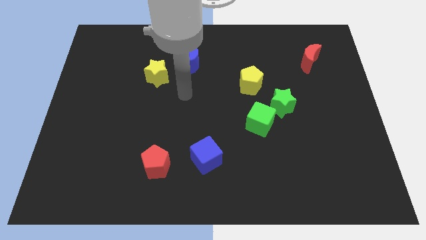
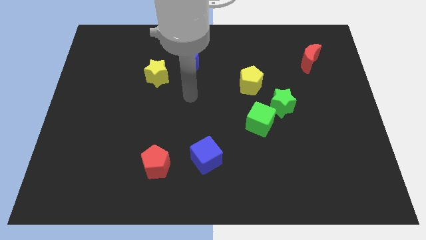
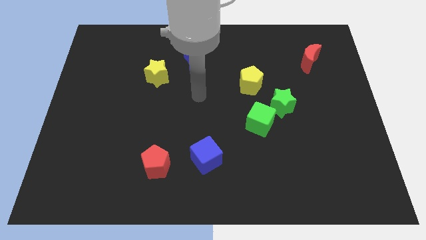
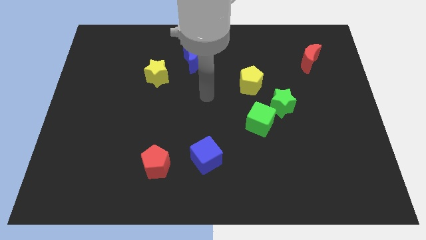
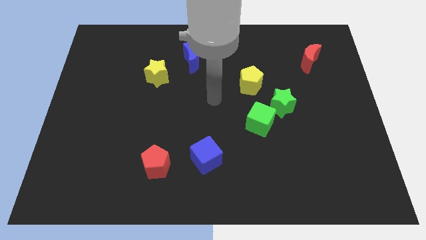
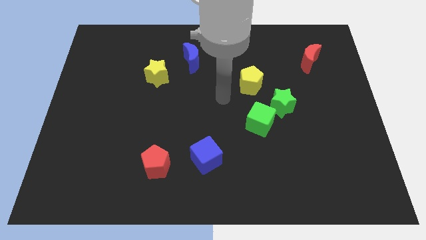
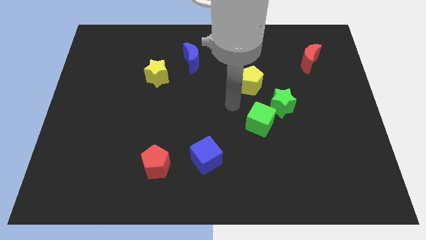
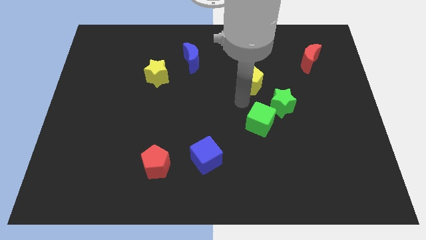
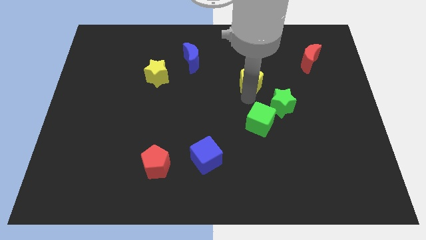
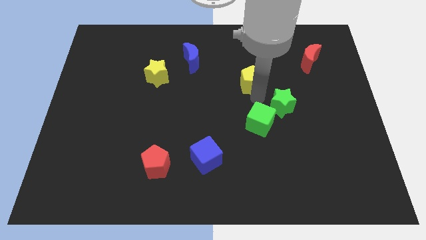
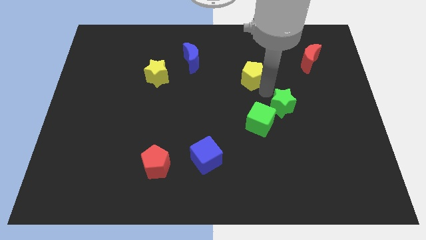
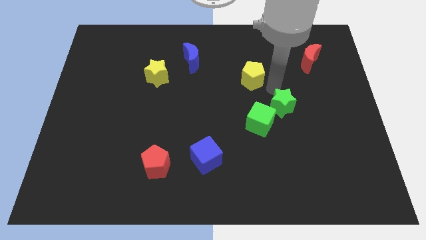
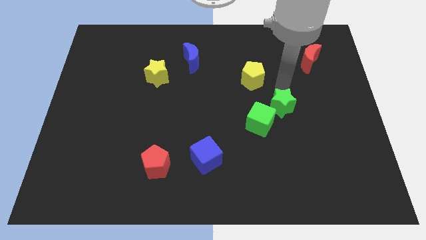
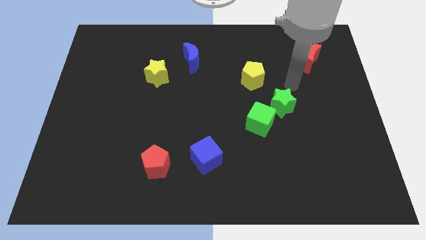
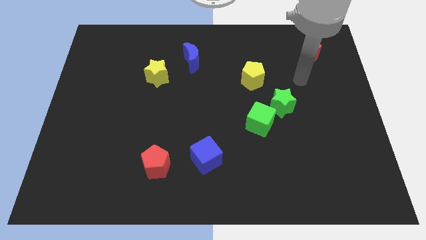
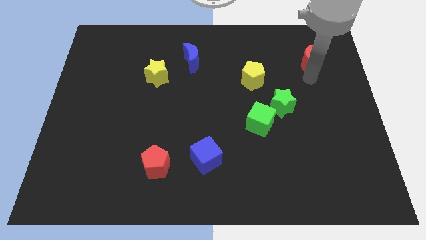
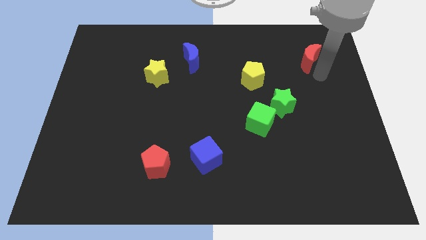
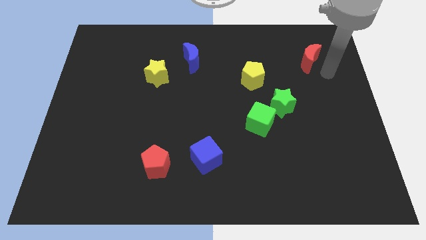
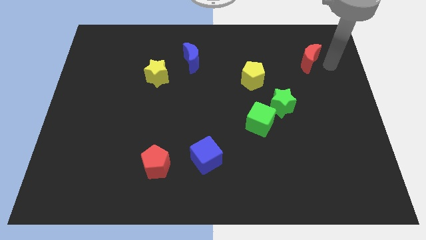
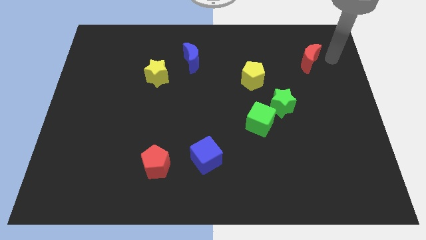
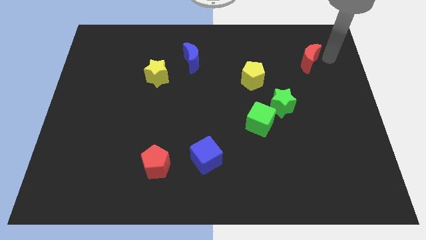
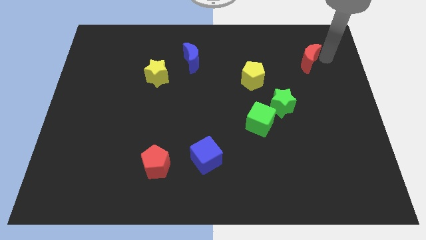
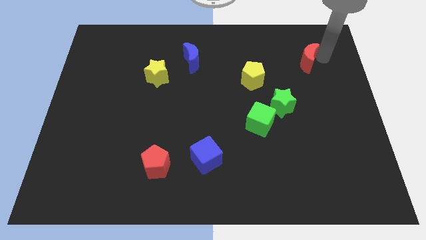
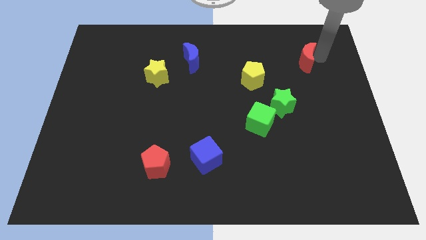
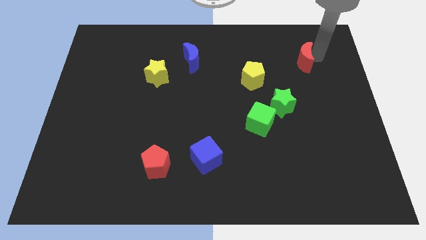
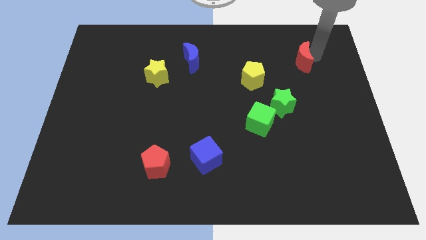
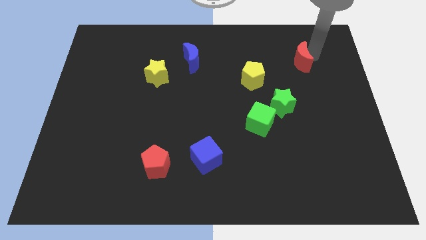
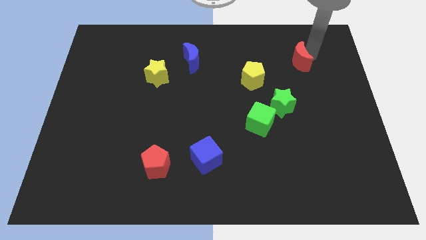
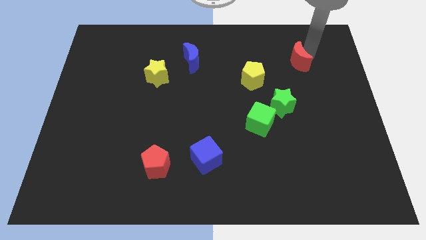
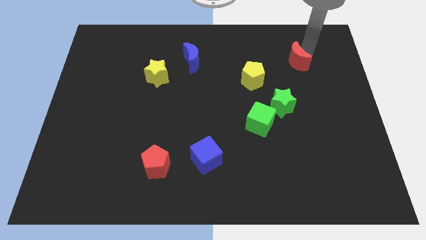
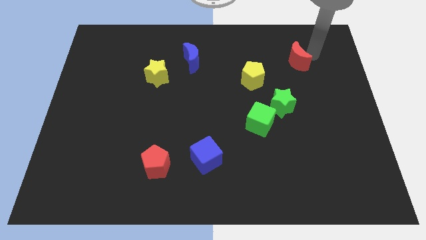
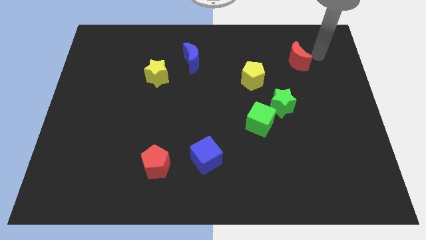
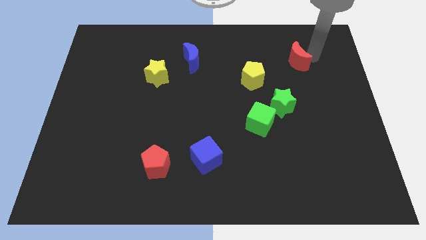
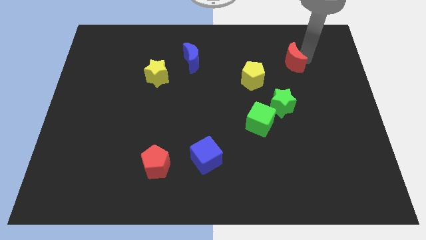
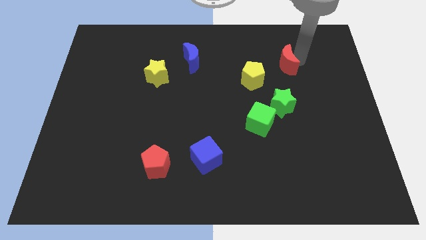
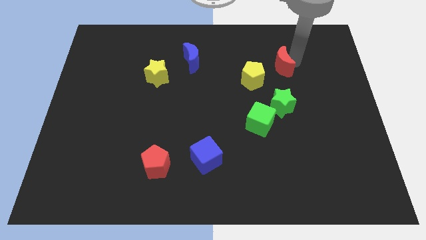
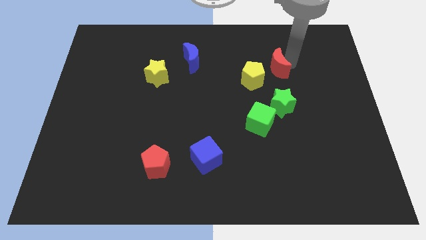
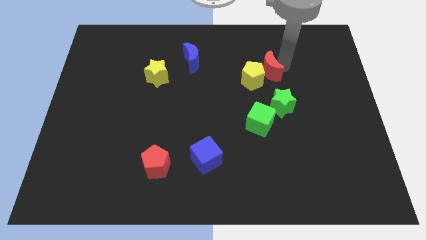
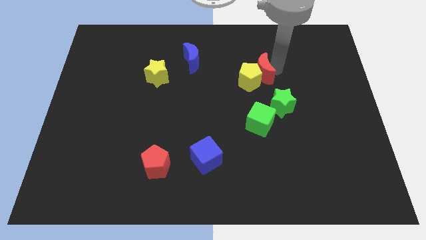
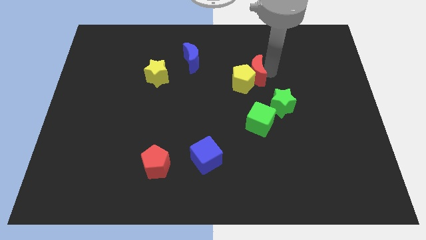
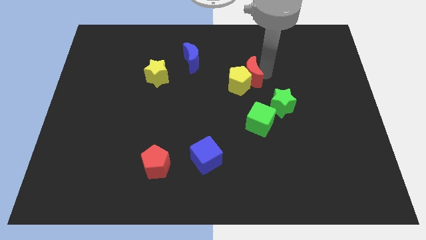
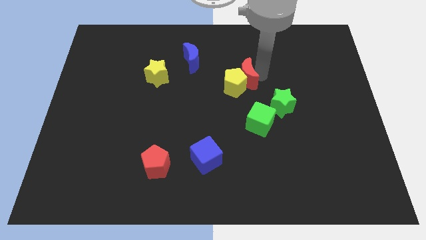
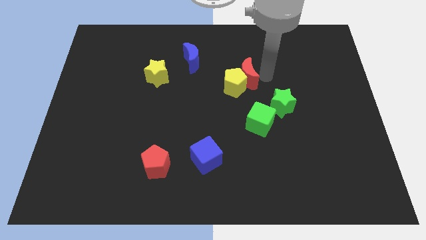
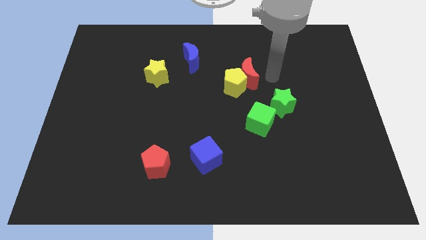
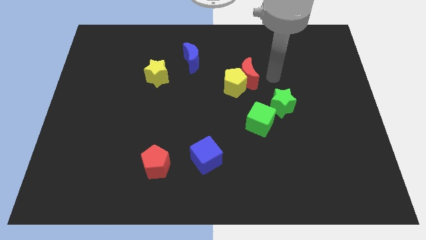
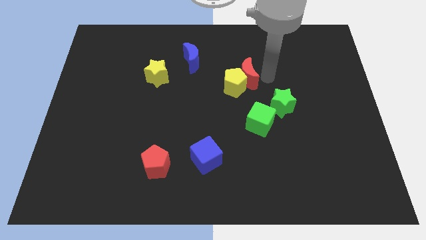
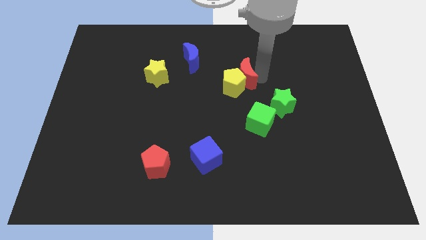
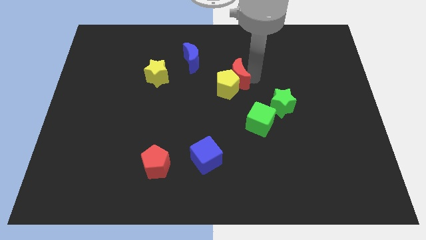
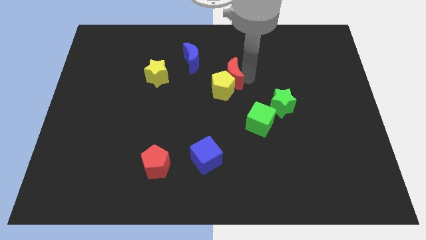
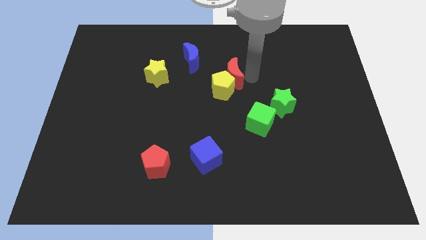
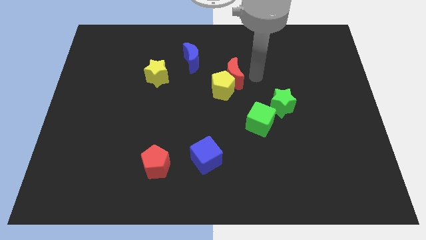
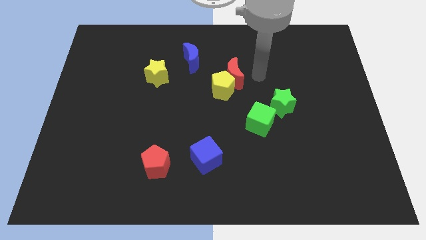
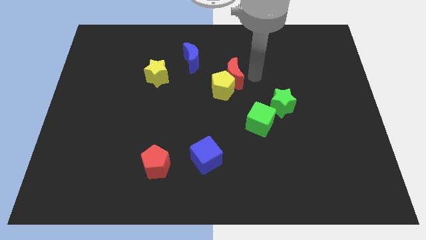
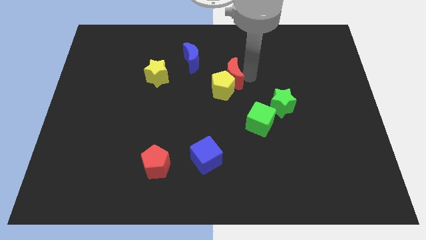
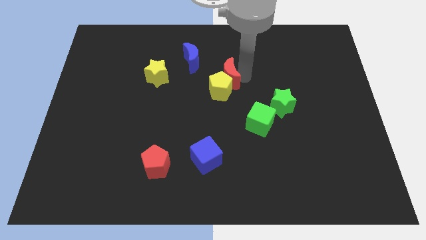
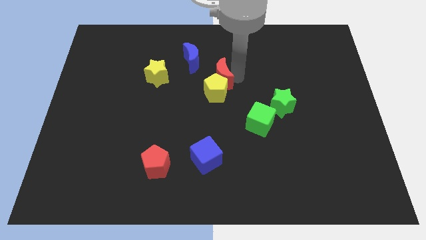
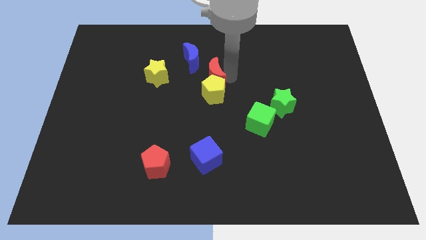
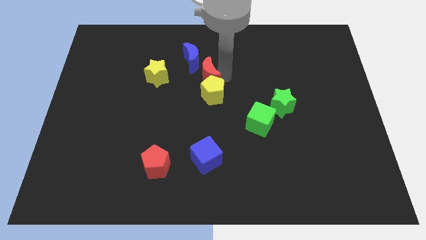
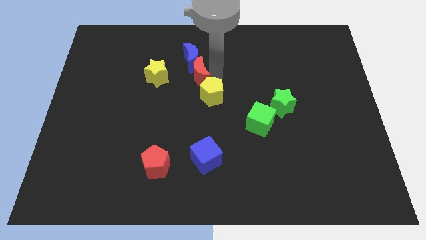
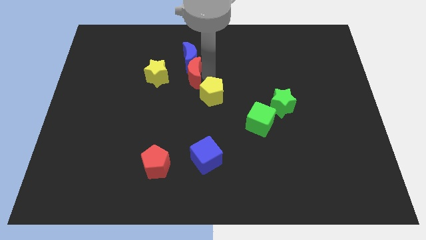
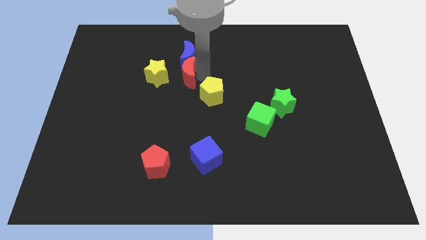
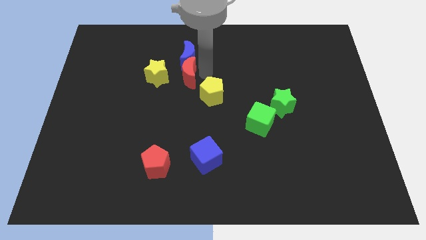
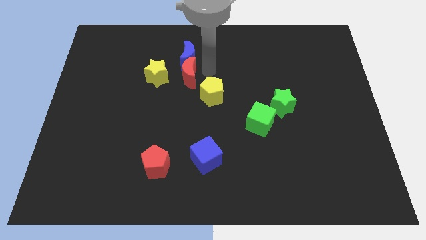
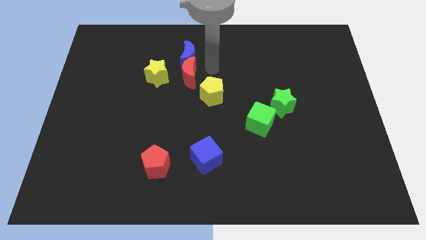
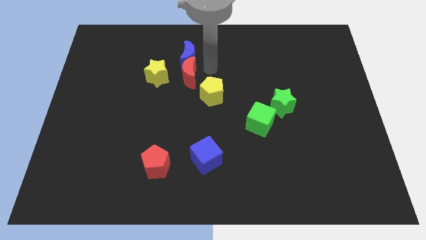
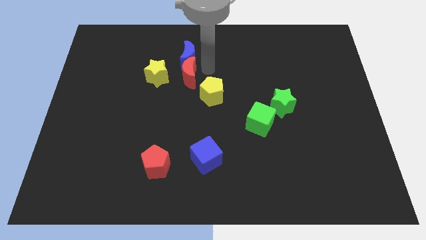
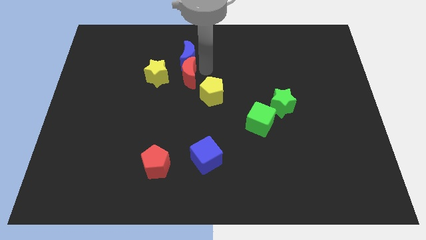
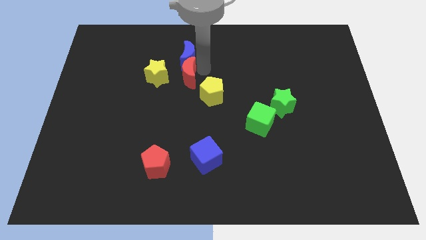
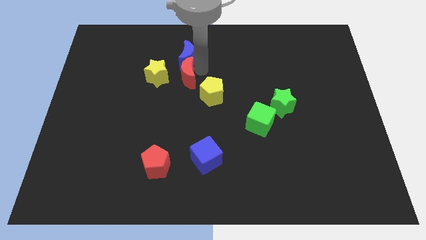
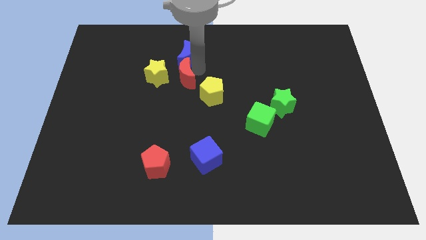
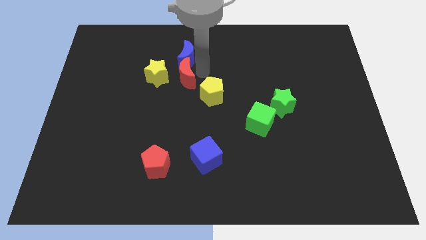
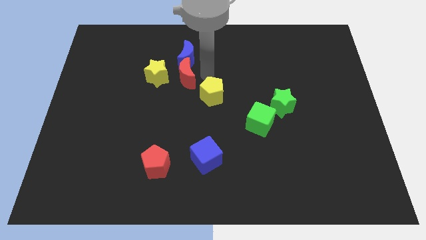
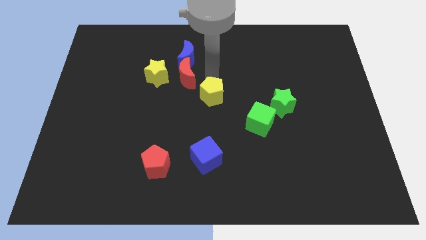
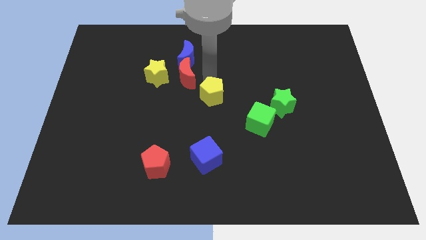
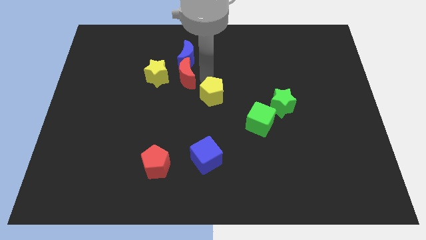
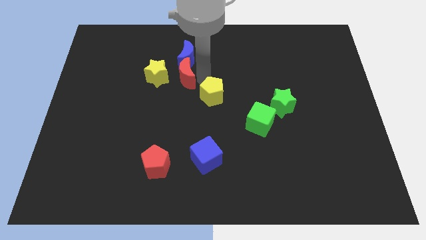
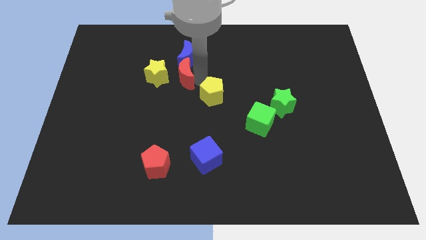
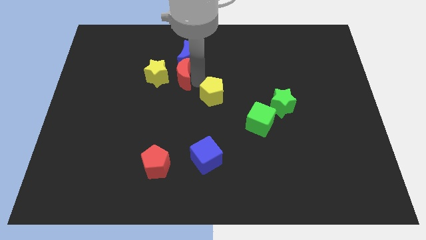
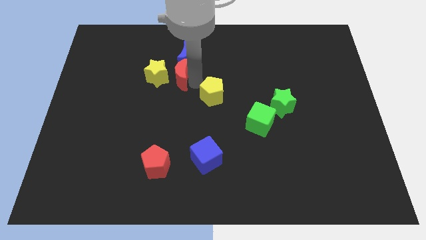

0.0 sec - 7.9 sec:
push the red moon towards the yellow star

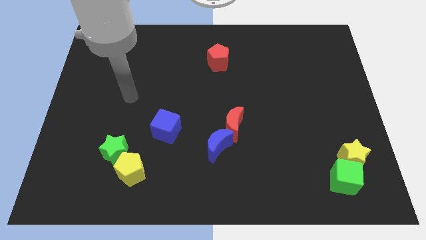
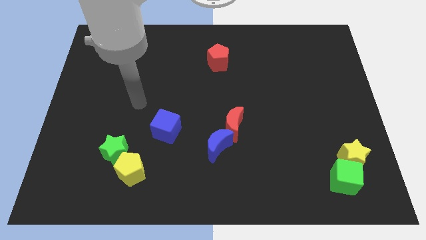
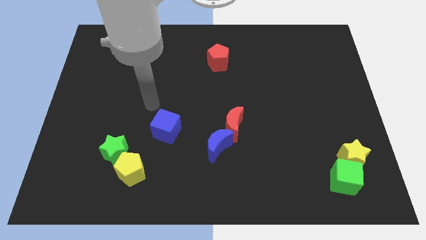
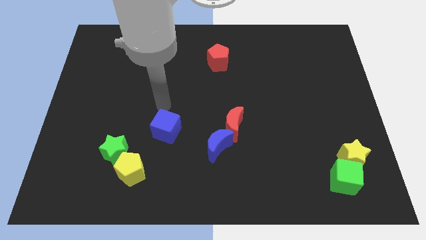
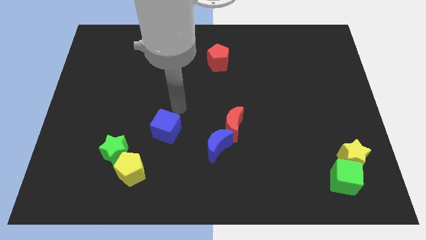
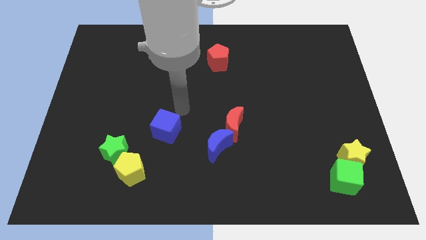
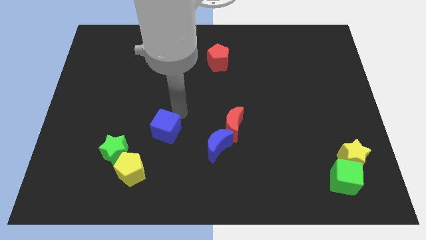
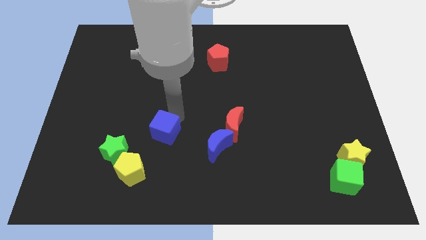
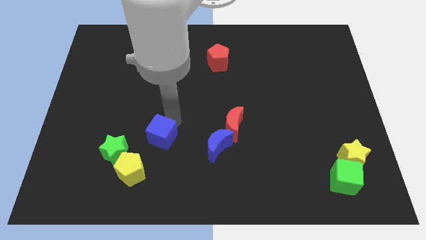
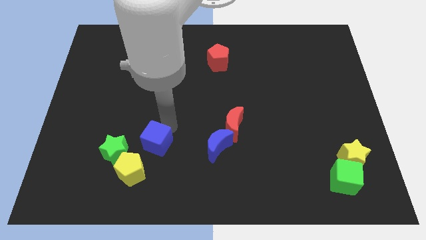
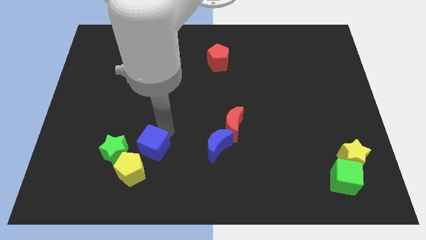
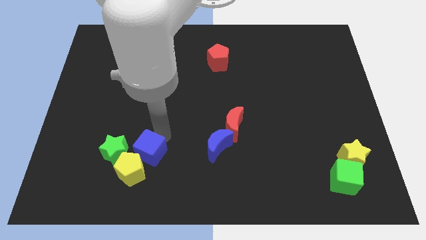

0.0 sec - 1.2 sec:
put the blue cube towards the yellow pentagon
